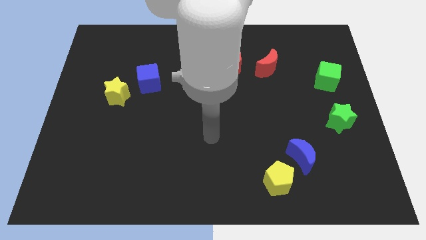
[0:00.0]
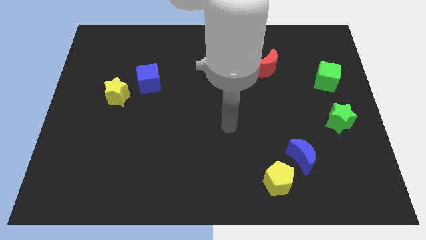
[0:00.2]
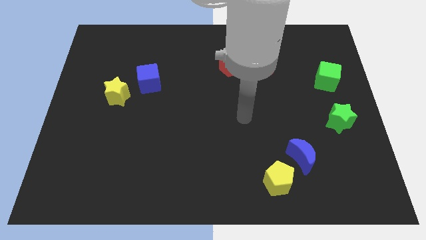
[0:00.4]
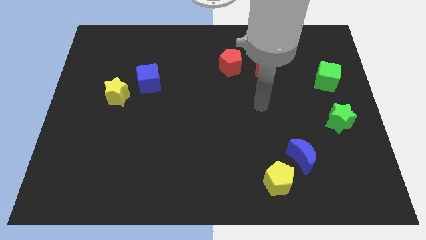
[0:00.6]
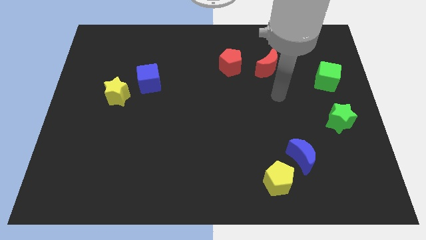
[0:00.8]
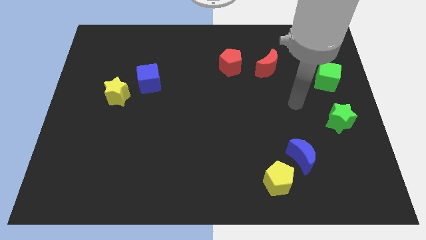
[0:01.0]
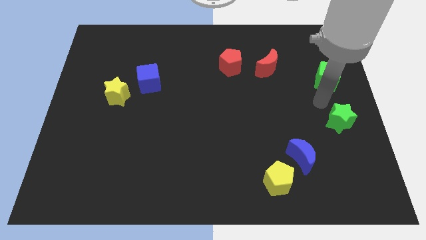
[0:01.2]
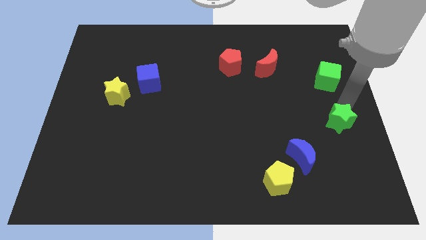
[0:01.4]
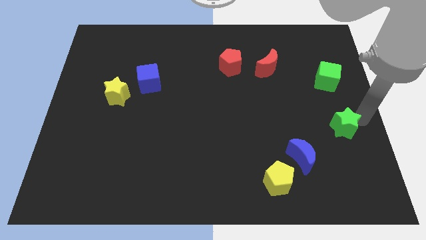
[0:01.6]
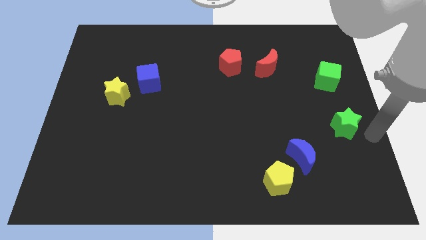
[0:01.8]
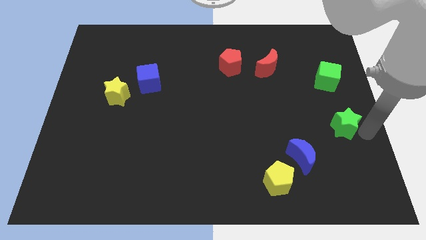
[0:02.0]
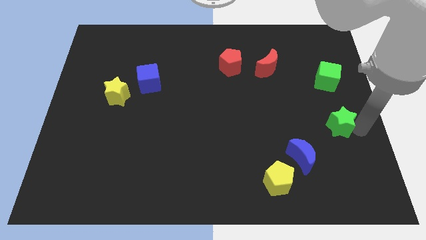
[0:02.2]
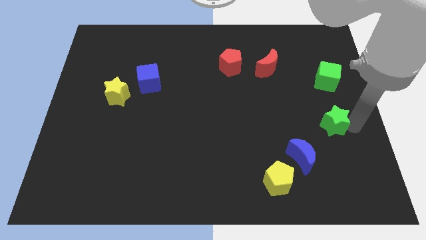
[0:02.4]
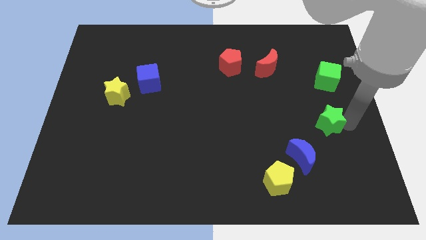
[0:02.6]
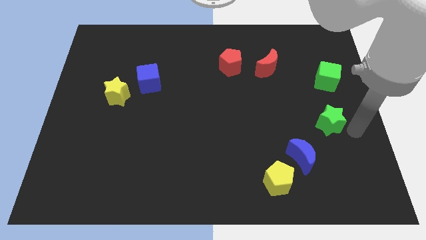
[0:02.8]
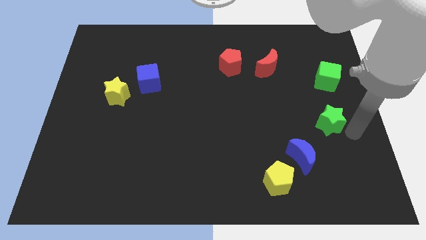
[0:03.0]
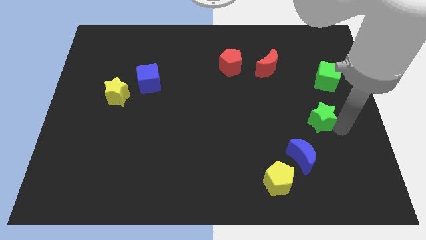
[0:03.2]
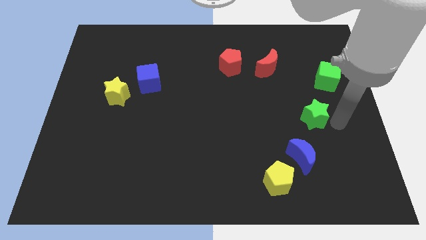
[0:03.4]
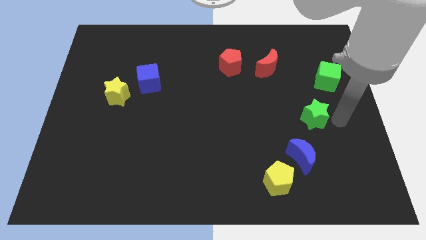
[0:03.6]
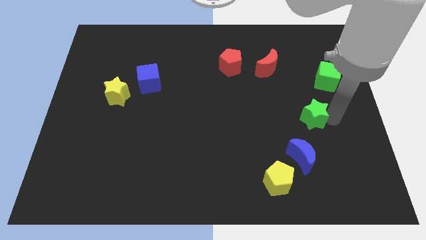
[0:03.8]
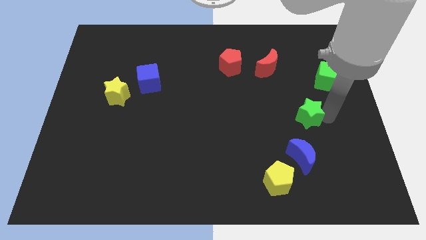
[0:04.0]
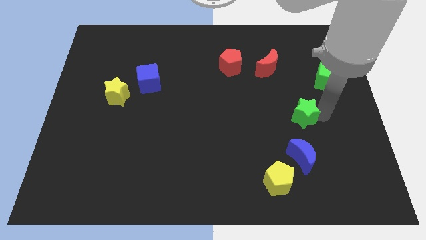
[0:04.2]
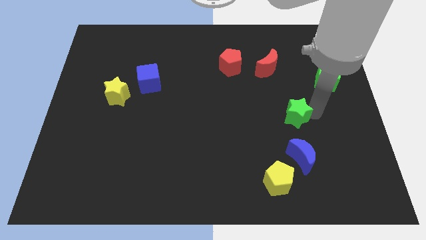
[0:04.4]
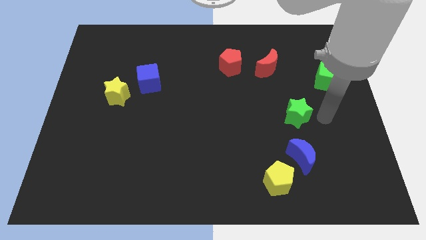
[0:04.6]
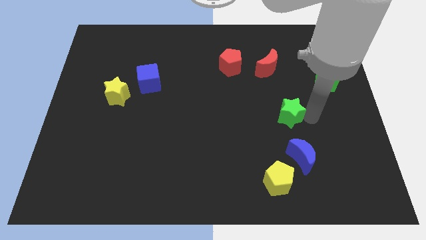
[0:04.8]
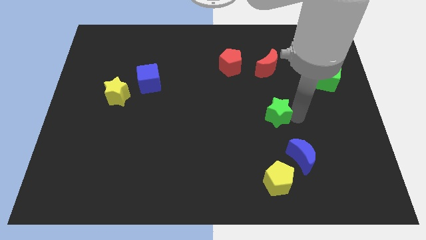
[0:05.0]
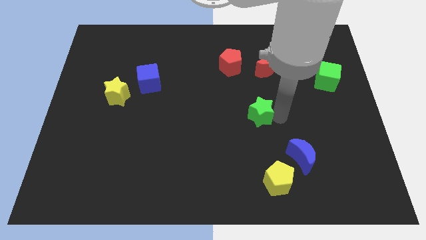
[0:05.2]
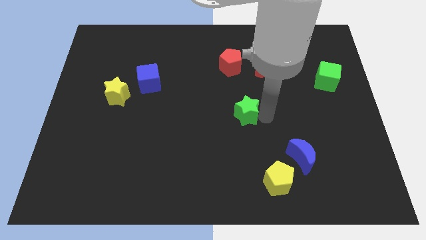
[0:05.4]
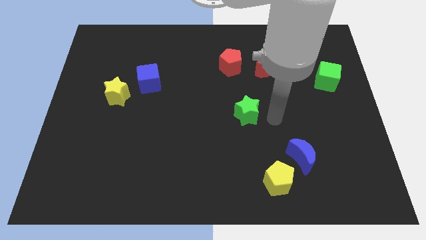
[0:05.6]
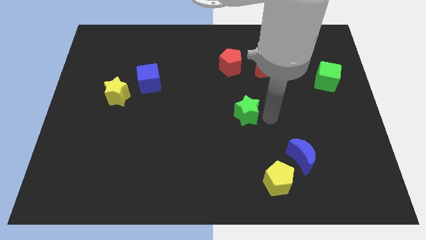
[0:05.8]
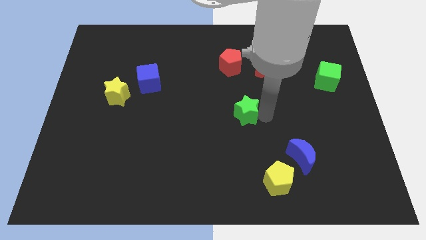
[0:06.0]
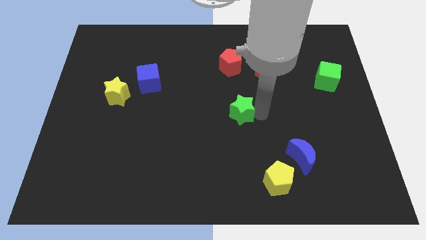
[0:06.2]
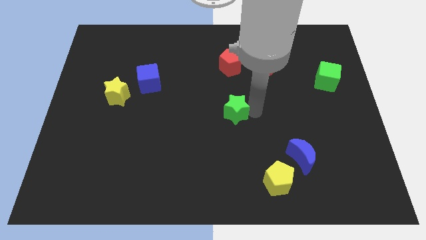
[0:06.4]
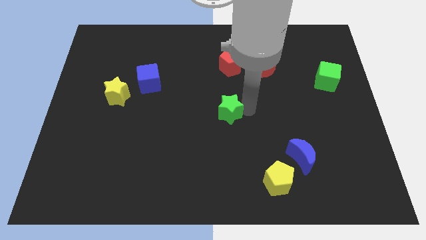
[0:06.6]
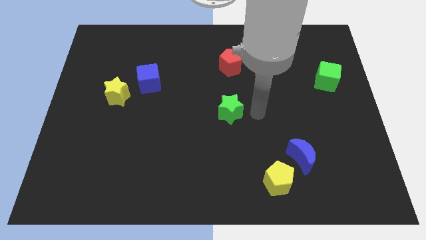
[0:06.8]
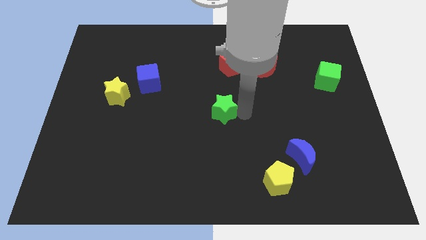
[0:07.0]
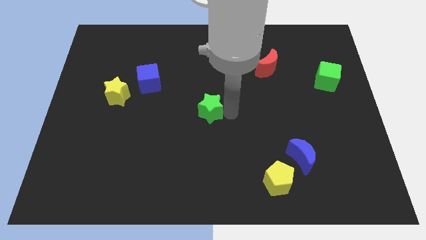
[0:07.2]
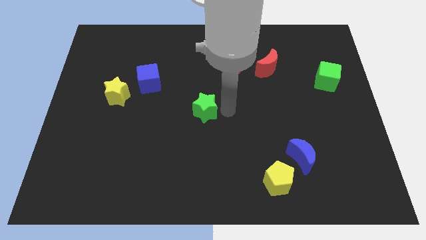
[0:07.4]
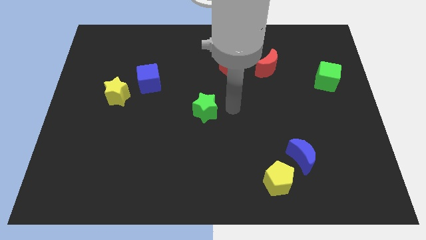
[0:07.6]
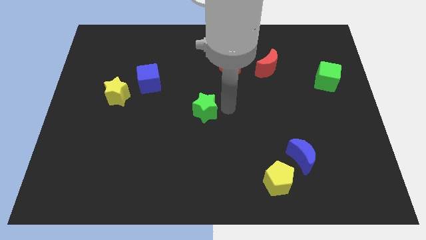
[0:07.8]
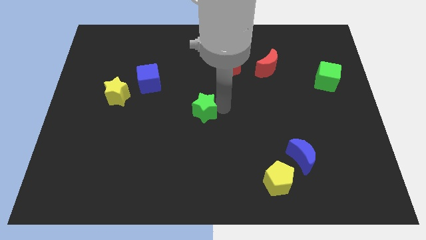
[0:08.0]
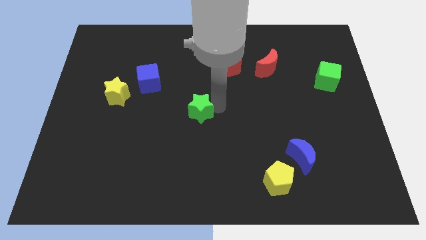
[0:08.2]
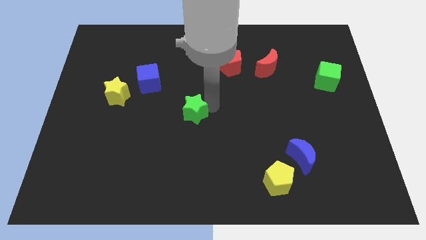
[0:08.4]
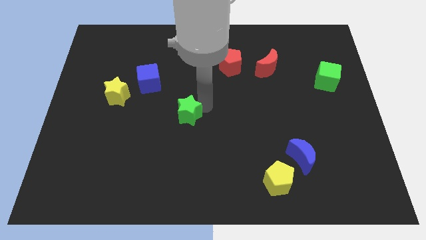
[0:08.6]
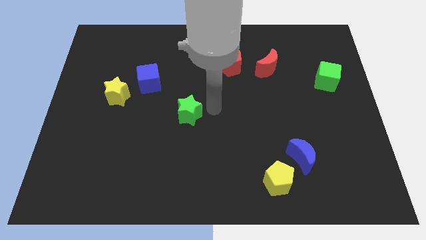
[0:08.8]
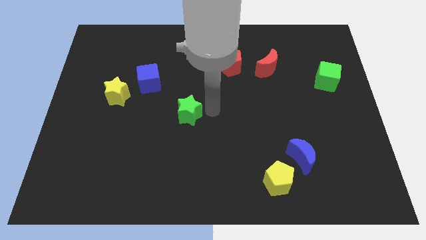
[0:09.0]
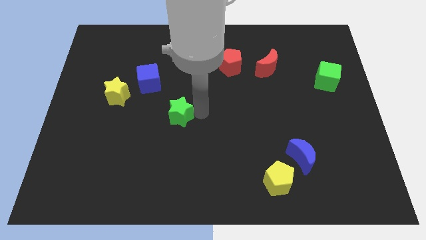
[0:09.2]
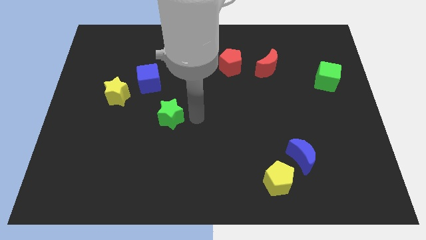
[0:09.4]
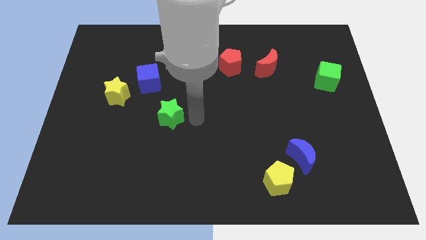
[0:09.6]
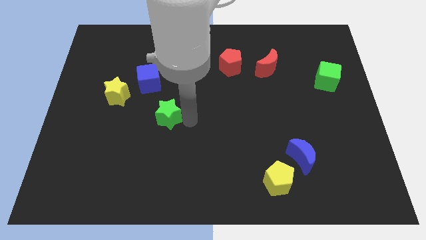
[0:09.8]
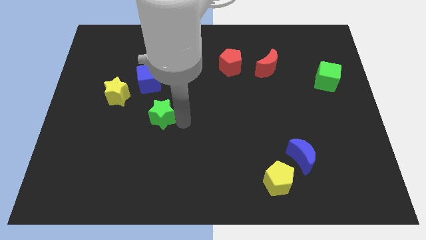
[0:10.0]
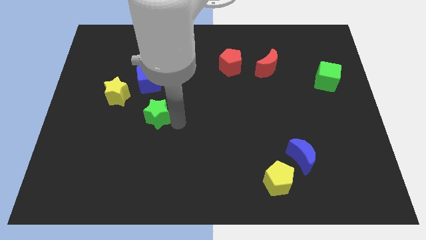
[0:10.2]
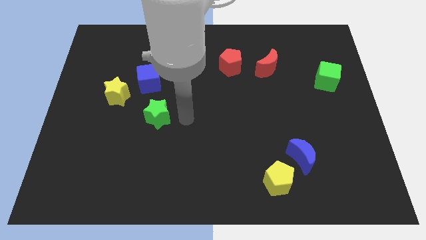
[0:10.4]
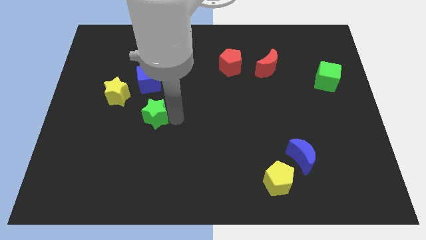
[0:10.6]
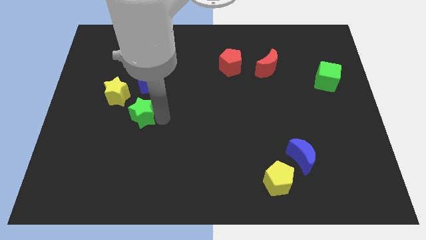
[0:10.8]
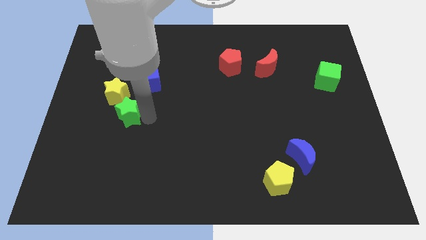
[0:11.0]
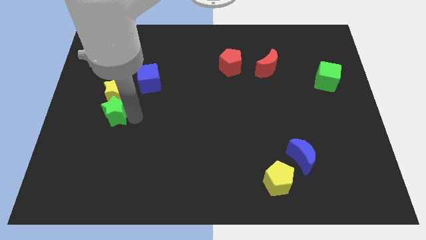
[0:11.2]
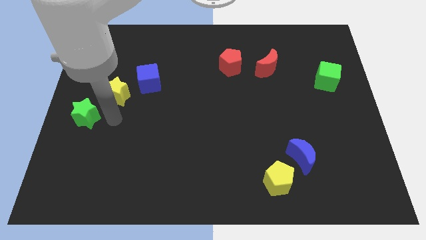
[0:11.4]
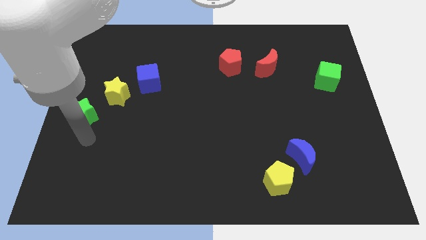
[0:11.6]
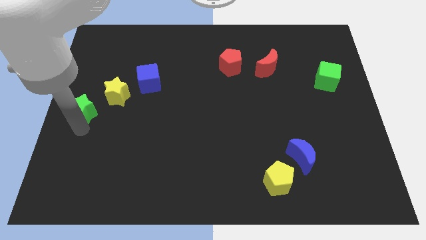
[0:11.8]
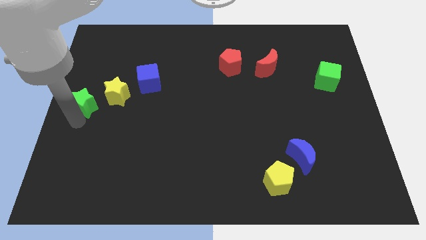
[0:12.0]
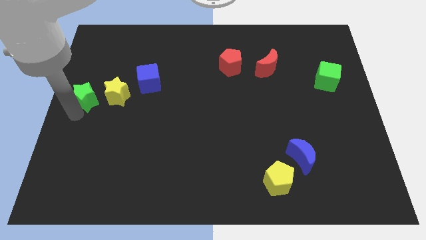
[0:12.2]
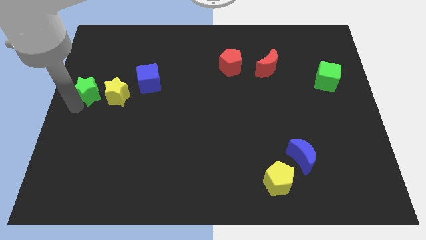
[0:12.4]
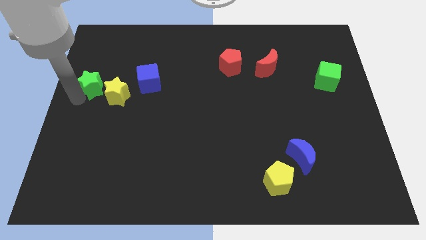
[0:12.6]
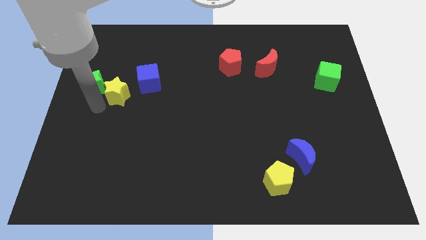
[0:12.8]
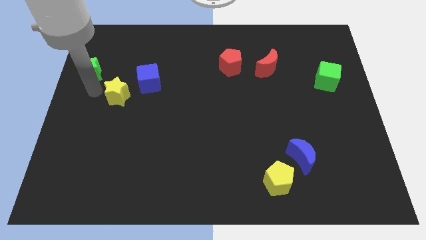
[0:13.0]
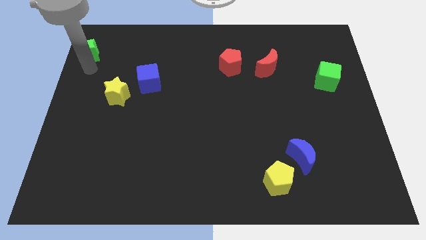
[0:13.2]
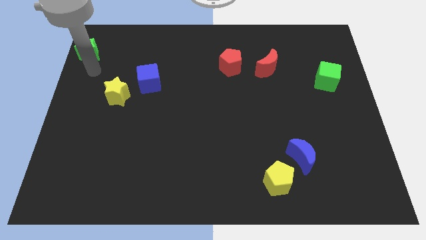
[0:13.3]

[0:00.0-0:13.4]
slide the green star to the top left of the board
